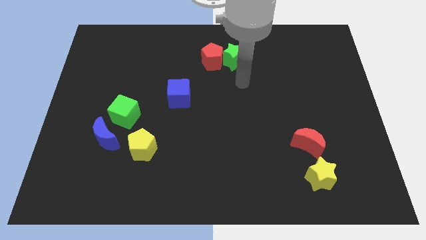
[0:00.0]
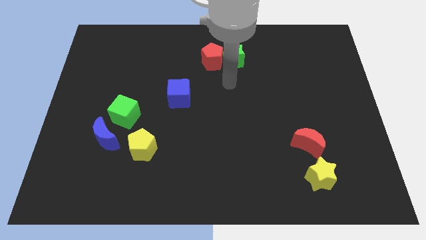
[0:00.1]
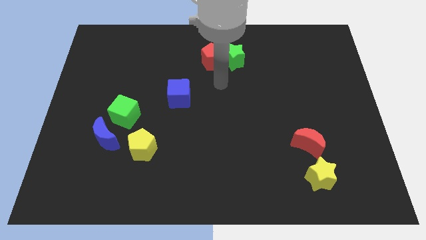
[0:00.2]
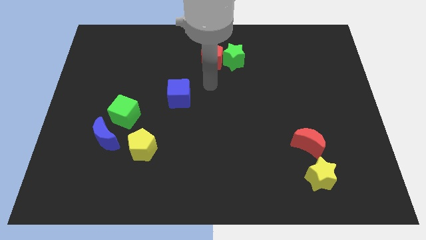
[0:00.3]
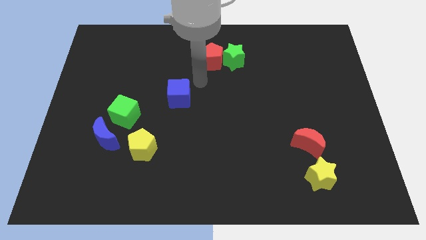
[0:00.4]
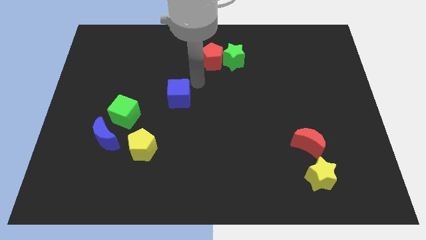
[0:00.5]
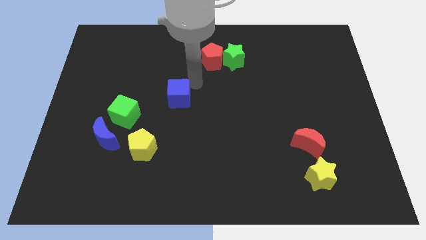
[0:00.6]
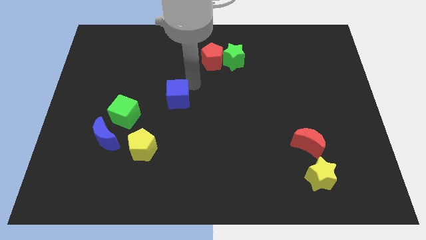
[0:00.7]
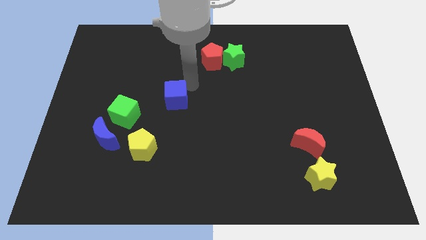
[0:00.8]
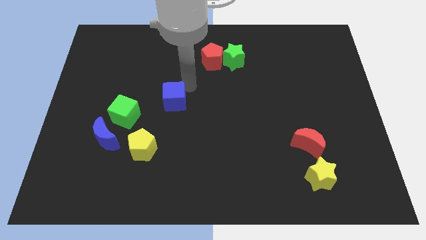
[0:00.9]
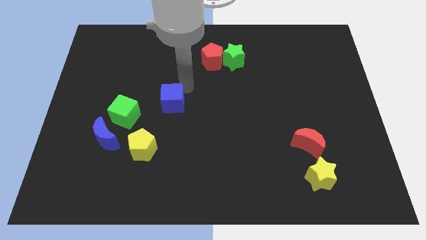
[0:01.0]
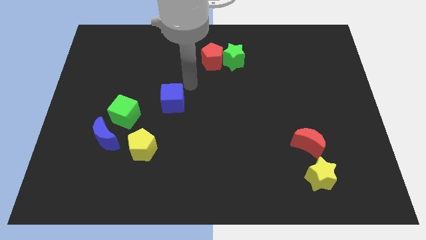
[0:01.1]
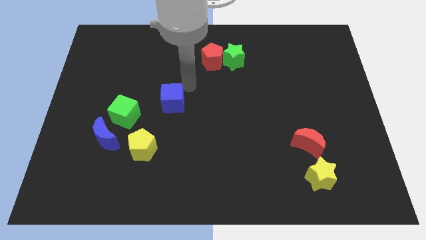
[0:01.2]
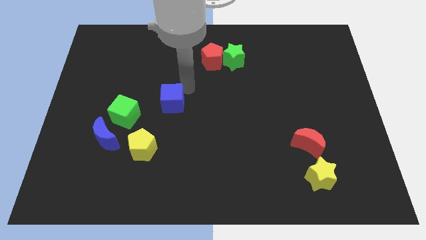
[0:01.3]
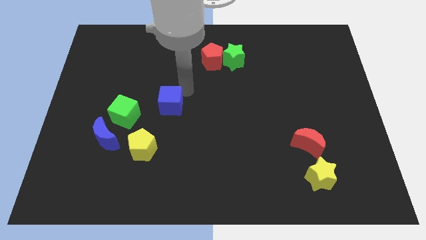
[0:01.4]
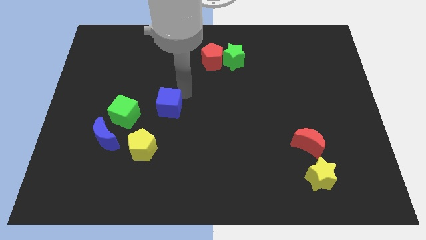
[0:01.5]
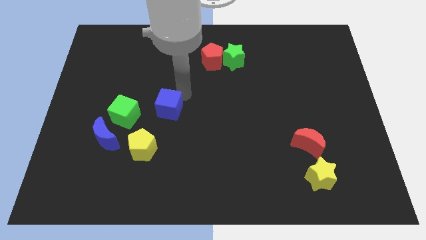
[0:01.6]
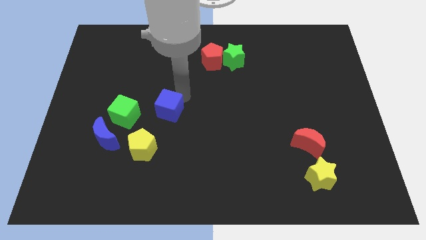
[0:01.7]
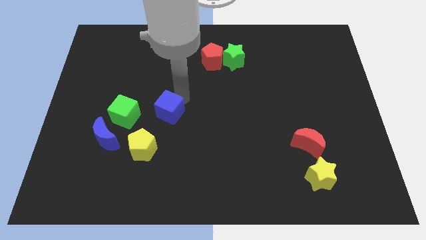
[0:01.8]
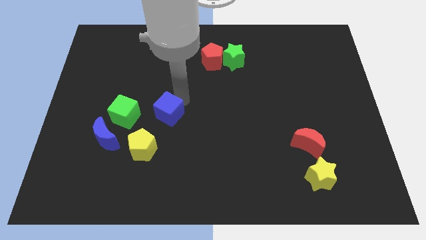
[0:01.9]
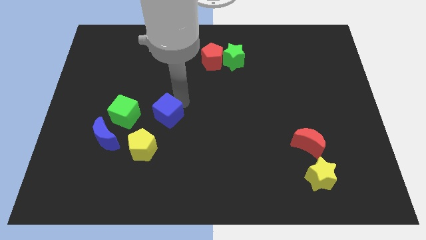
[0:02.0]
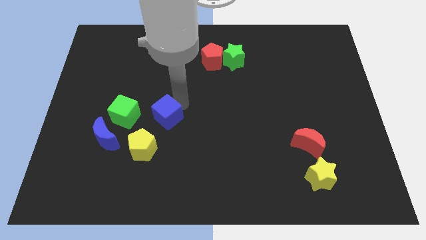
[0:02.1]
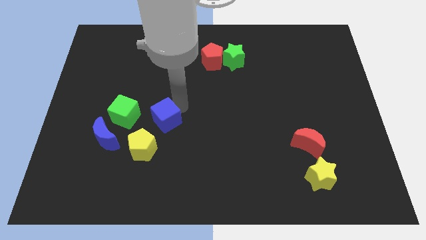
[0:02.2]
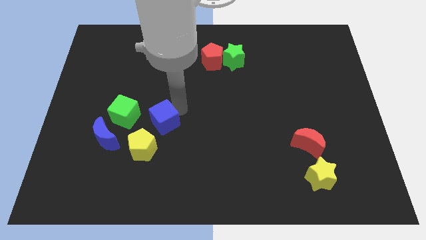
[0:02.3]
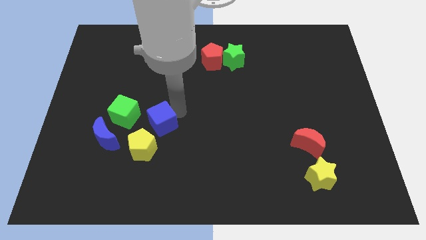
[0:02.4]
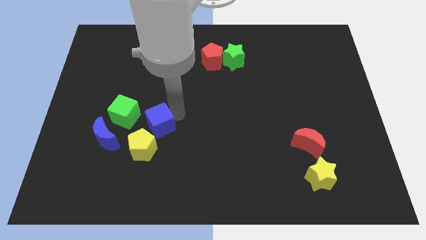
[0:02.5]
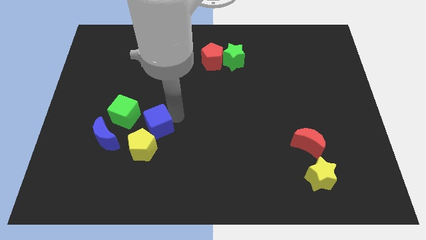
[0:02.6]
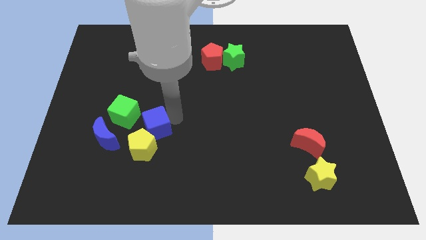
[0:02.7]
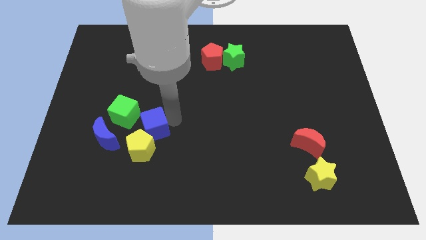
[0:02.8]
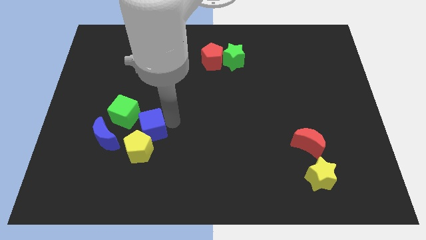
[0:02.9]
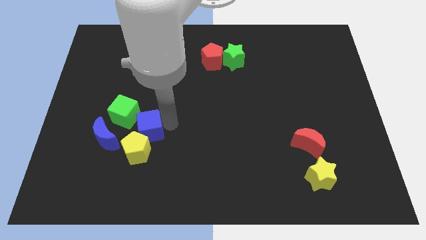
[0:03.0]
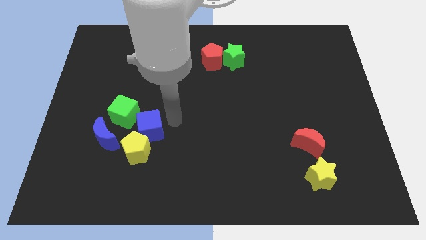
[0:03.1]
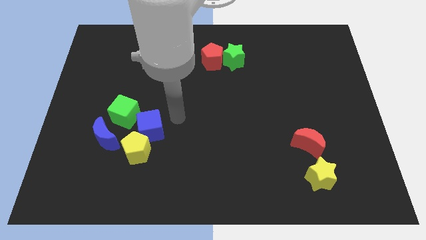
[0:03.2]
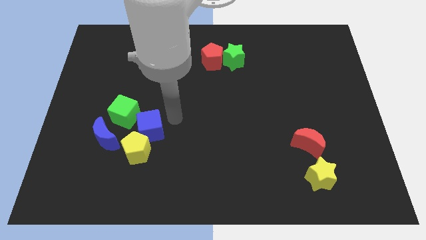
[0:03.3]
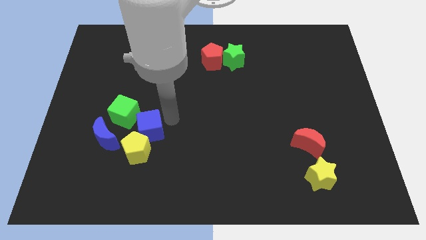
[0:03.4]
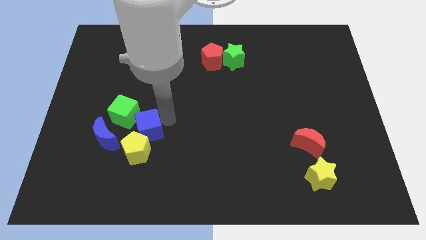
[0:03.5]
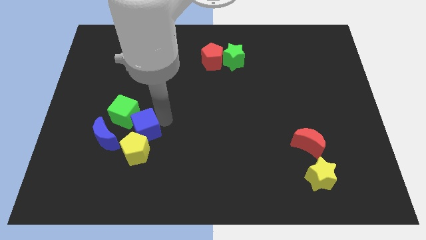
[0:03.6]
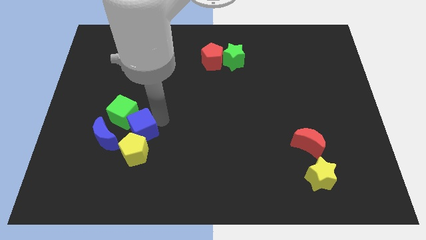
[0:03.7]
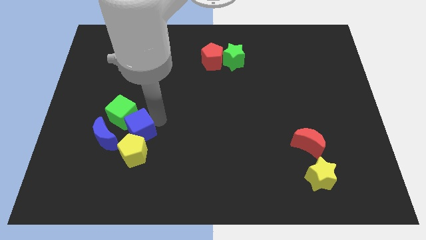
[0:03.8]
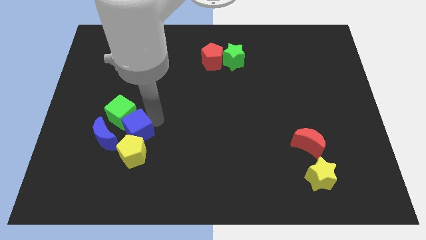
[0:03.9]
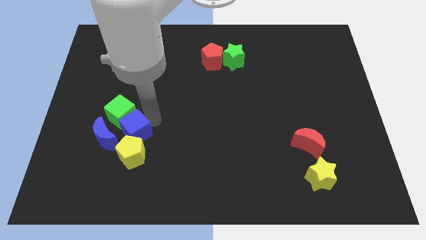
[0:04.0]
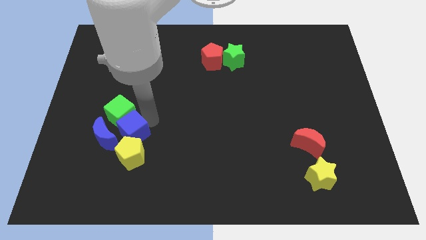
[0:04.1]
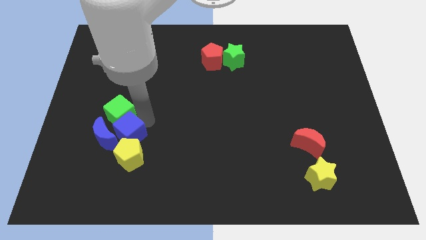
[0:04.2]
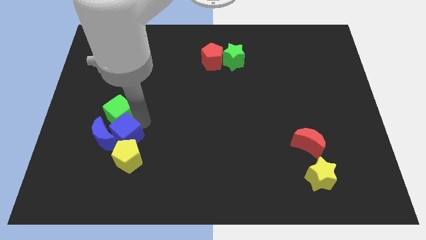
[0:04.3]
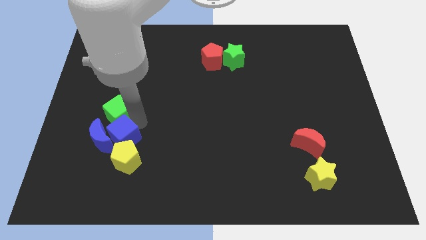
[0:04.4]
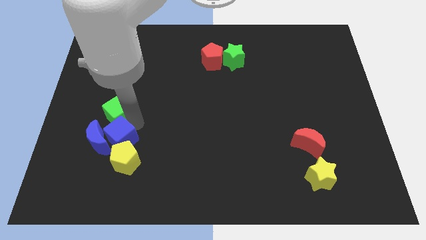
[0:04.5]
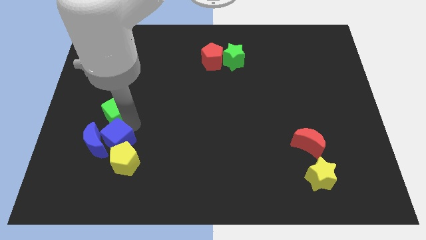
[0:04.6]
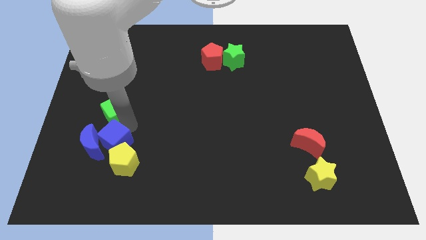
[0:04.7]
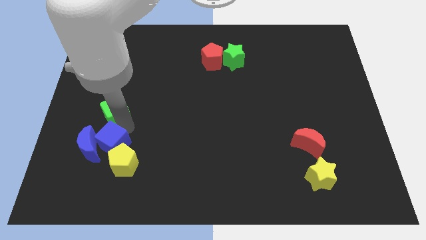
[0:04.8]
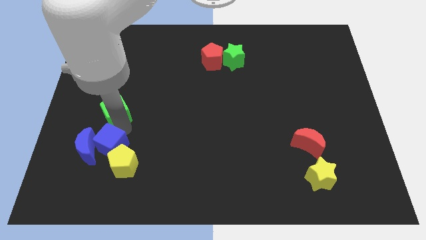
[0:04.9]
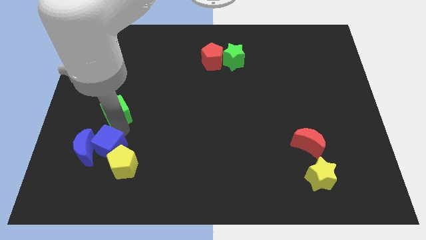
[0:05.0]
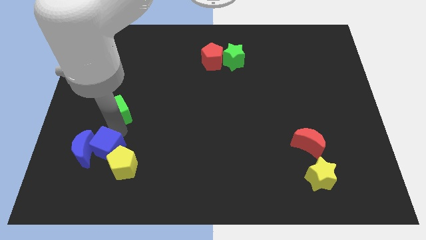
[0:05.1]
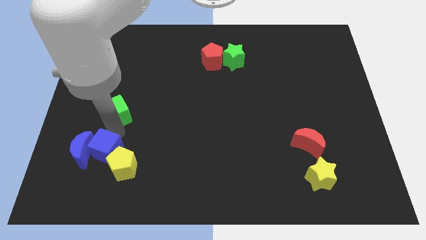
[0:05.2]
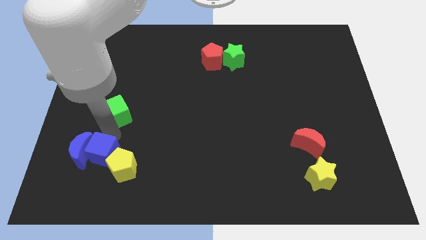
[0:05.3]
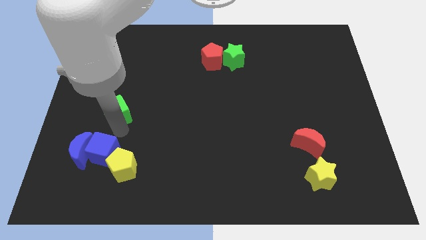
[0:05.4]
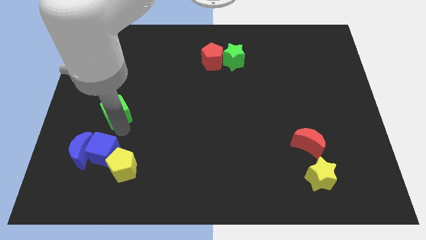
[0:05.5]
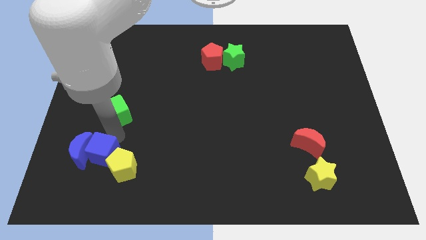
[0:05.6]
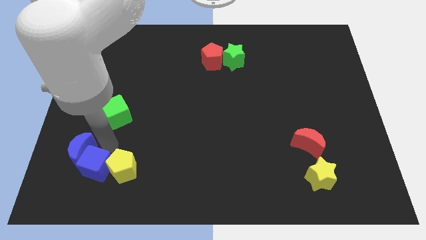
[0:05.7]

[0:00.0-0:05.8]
put the blue cube to the bottom of the blue moon
